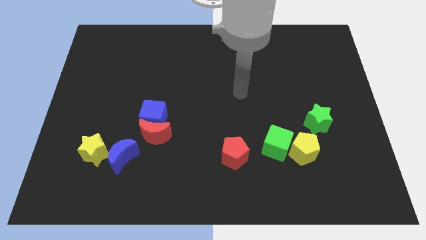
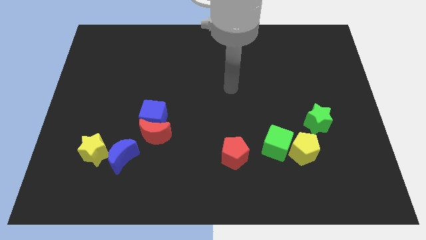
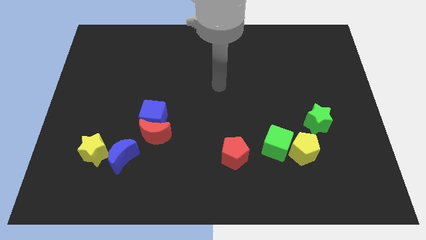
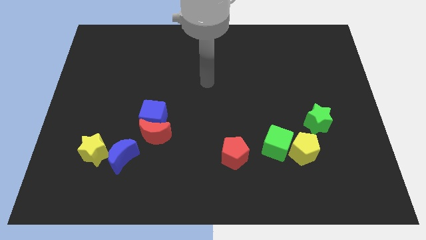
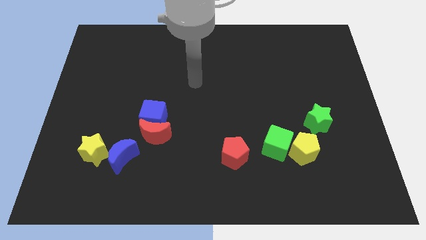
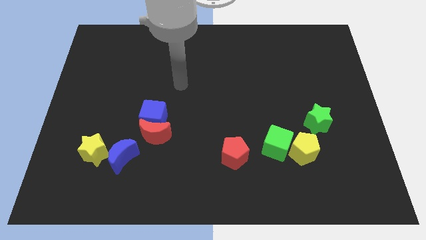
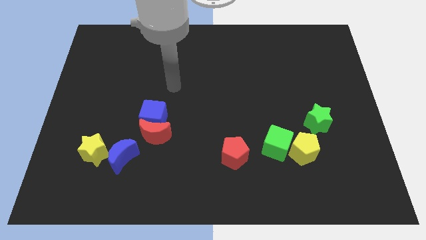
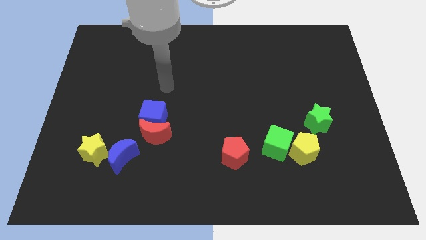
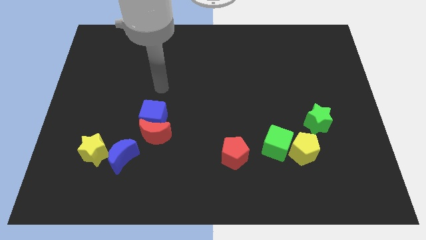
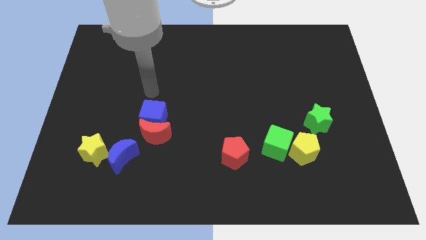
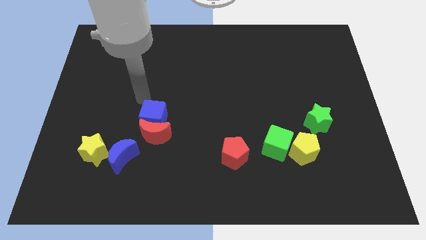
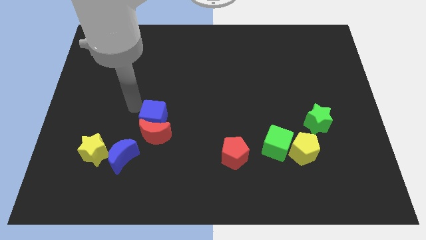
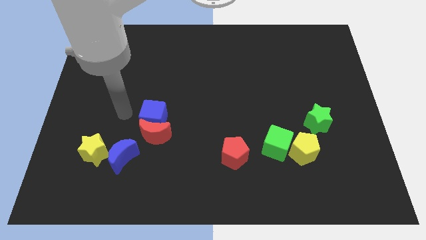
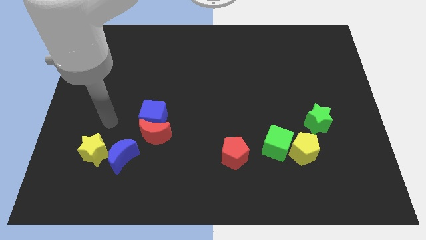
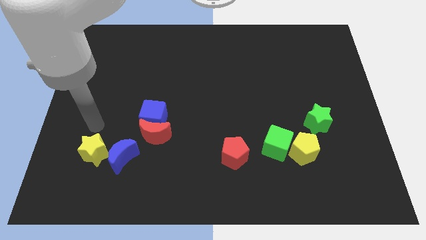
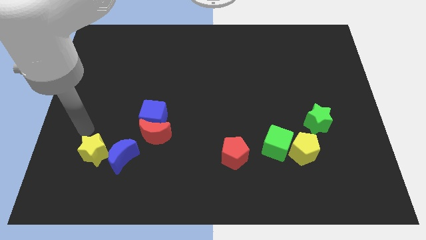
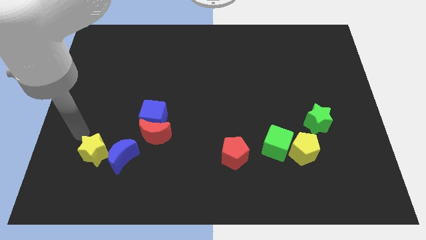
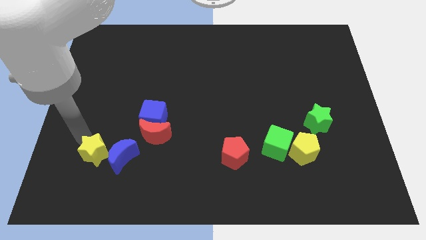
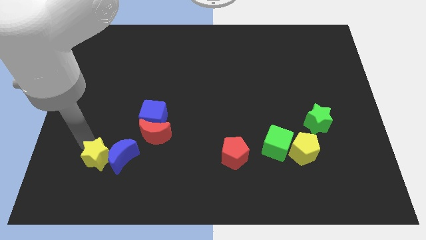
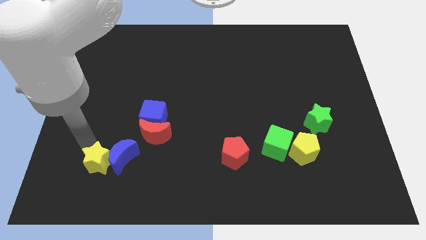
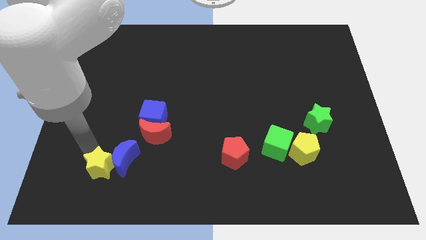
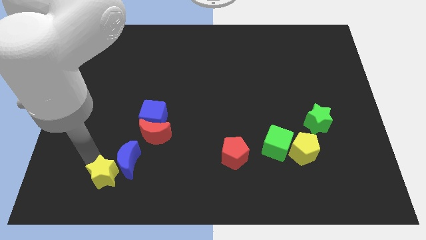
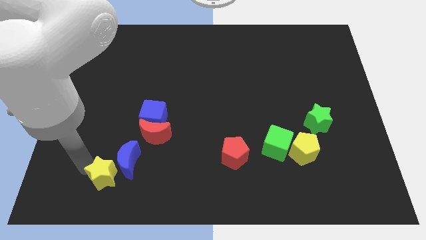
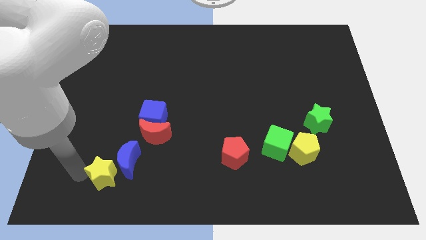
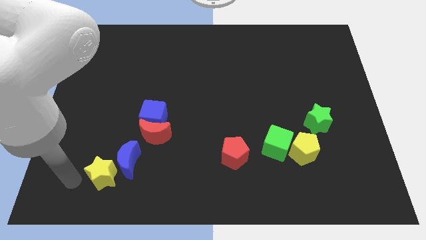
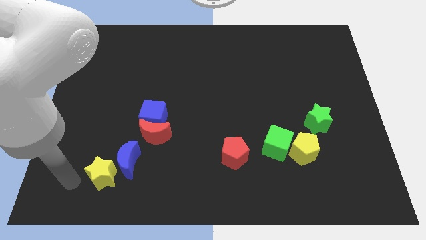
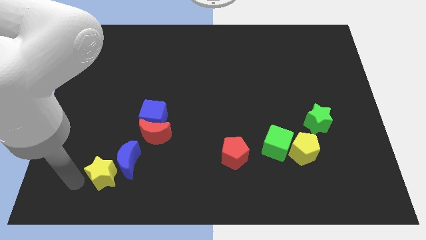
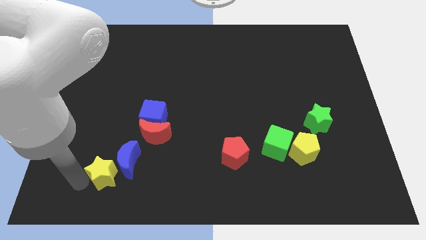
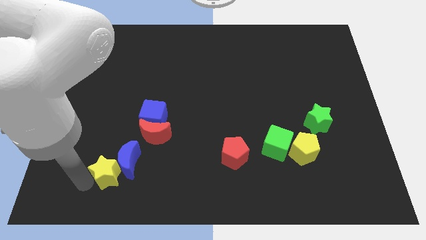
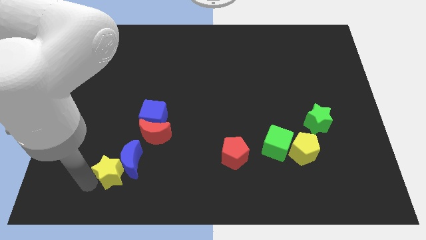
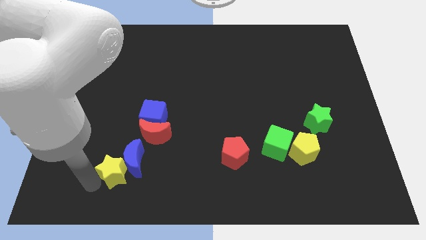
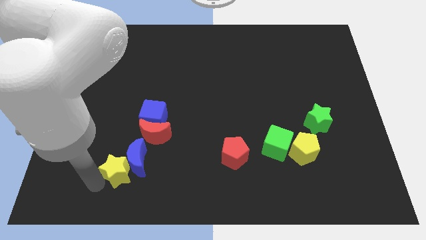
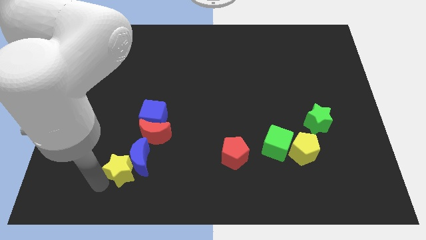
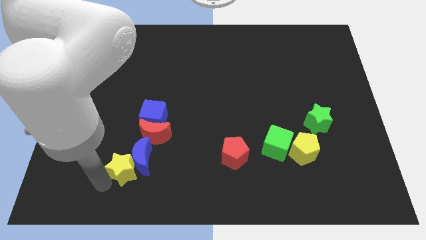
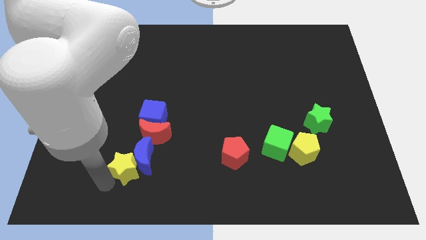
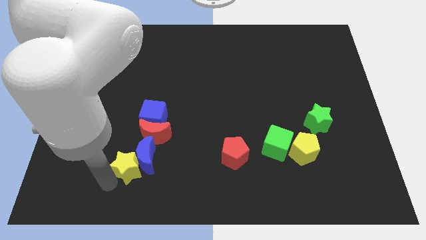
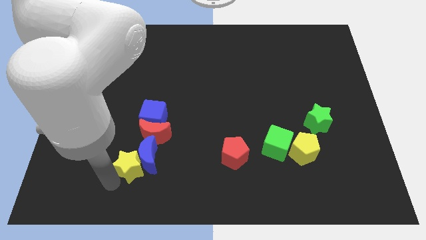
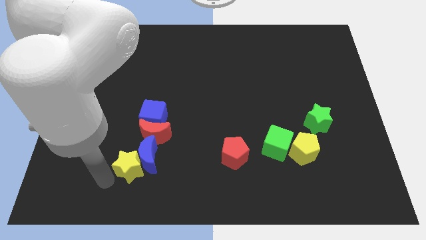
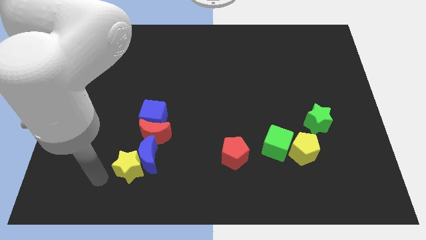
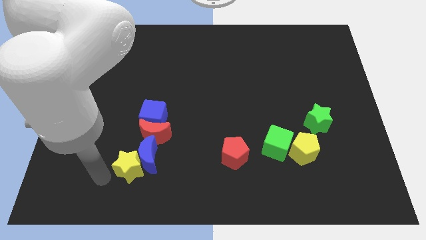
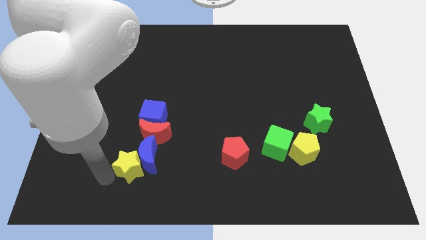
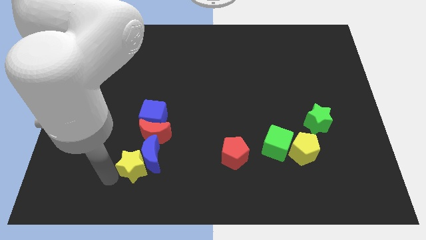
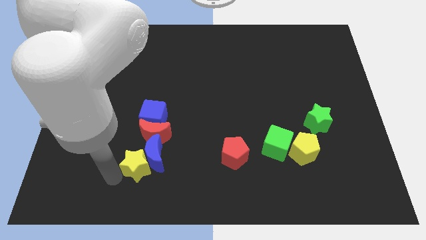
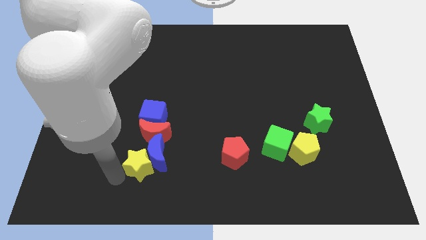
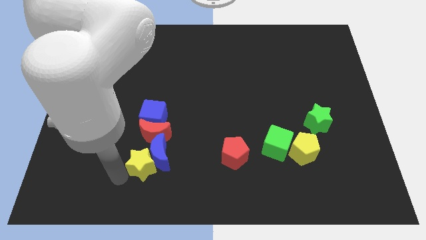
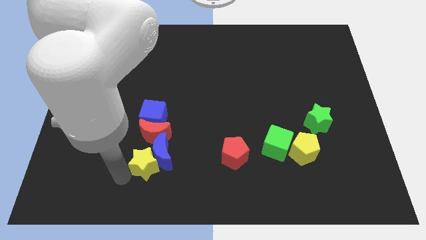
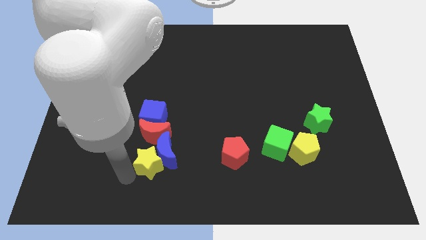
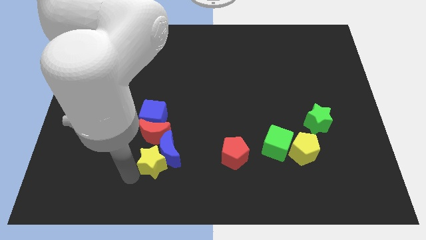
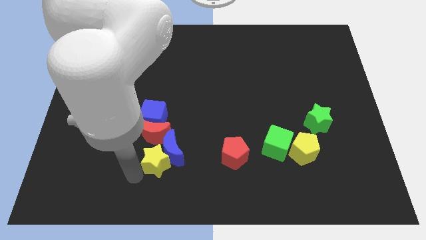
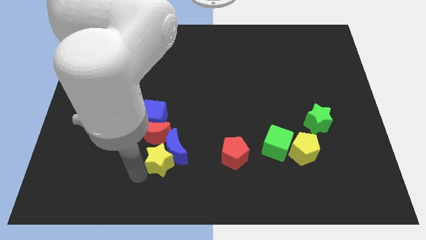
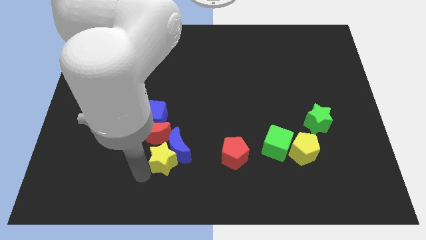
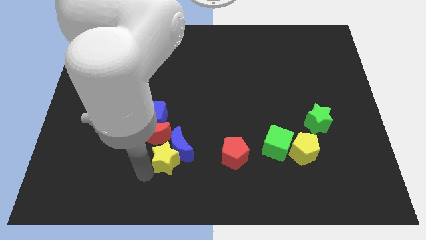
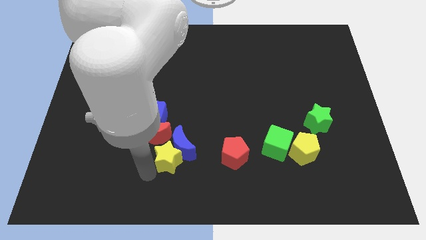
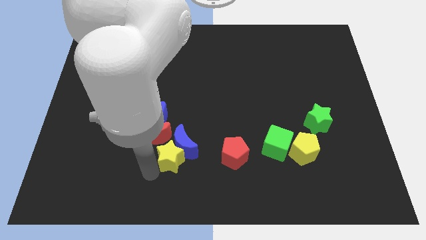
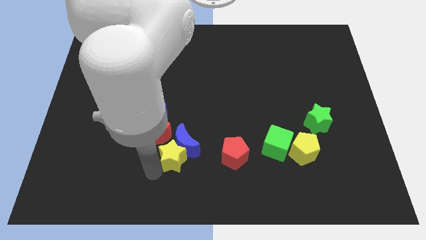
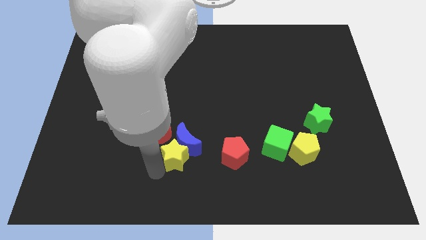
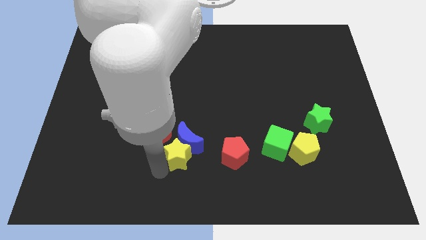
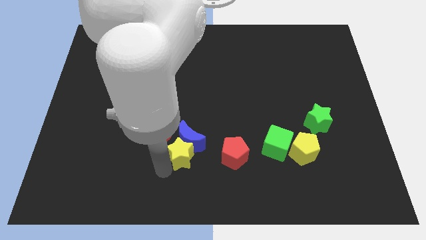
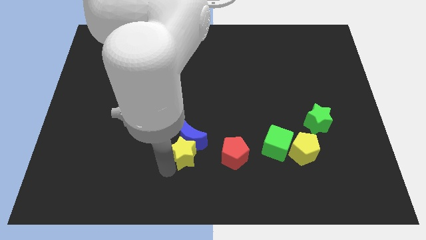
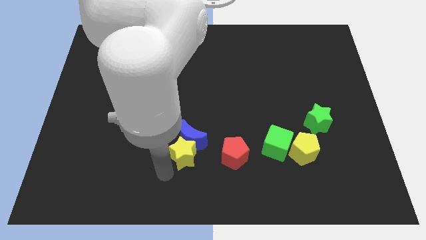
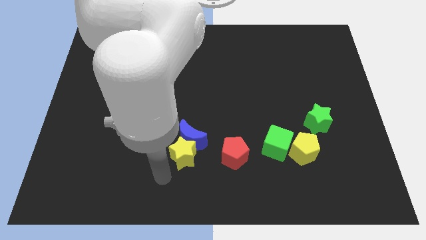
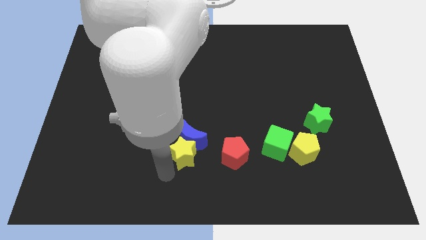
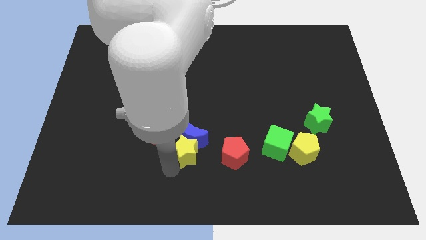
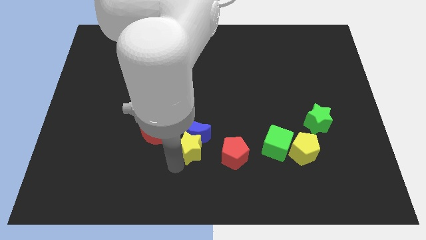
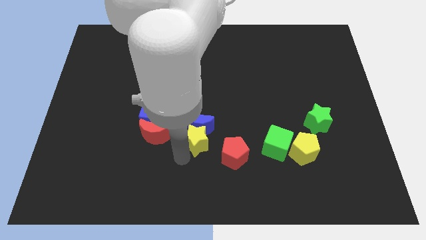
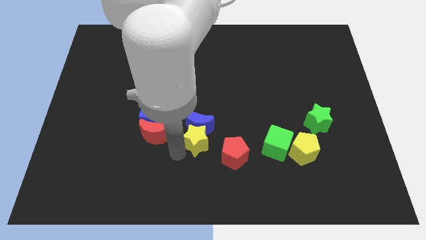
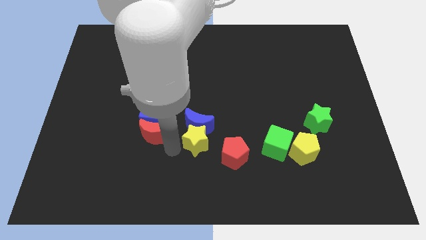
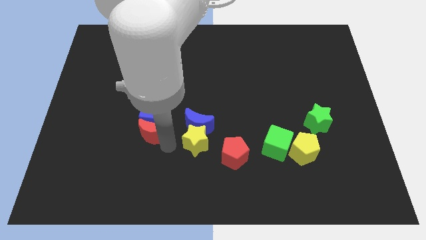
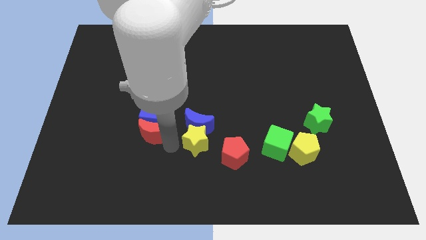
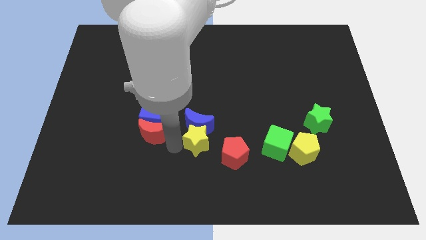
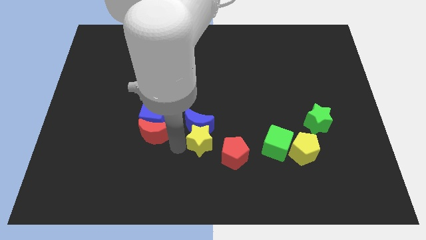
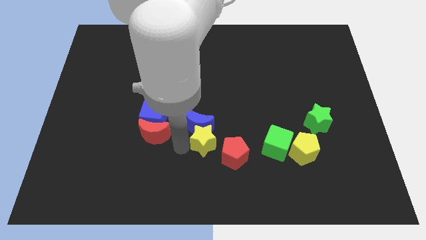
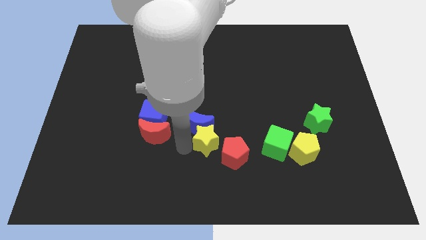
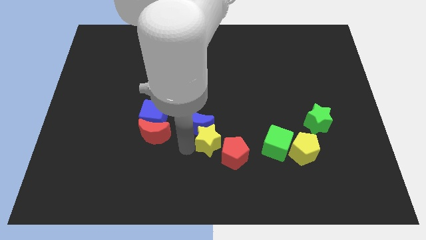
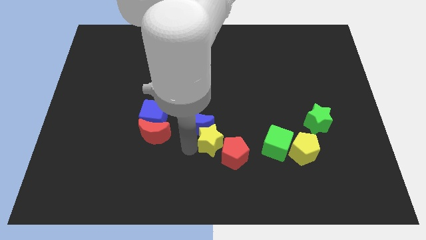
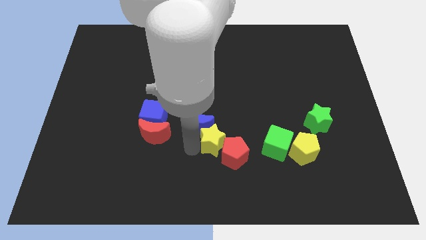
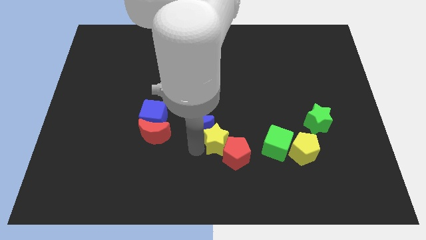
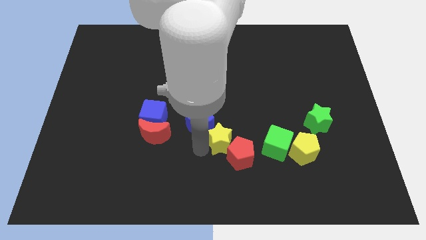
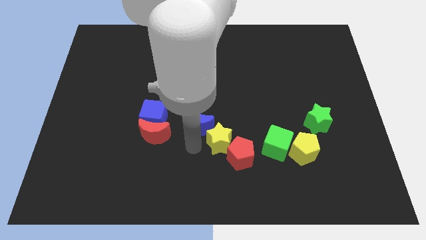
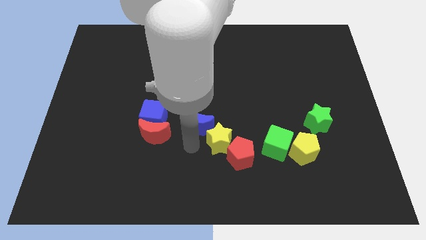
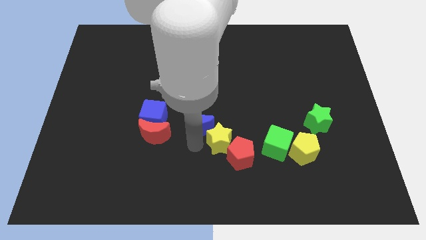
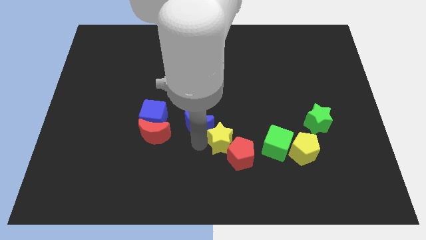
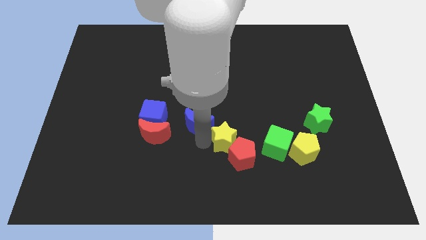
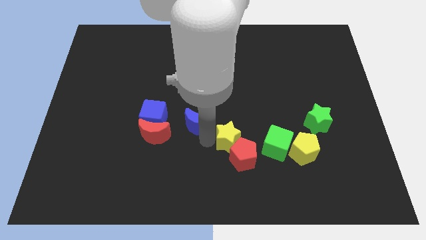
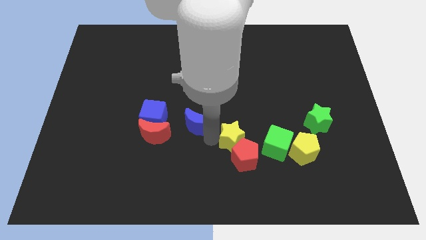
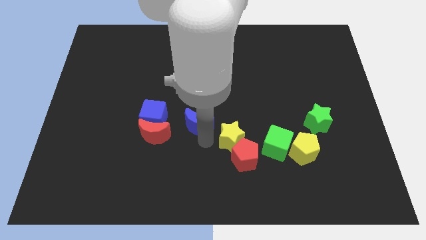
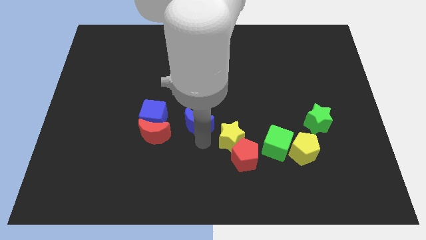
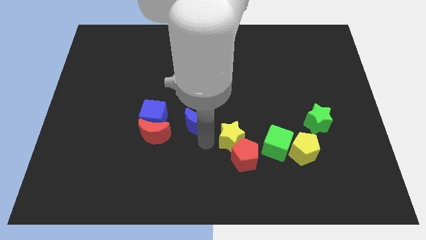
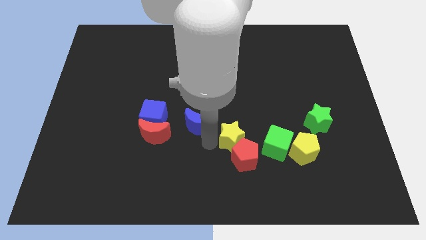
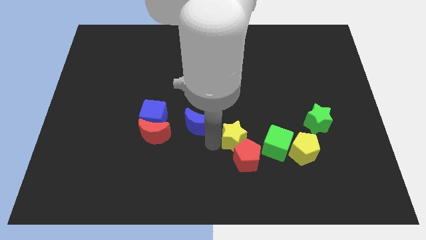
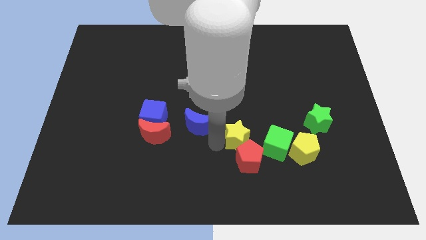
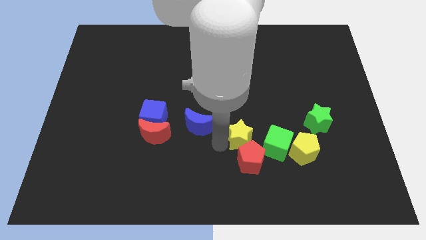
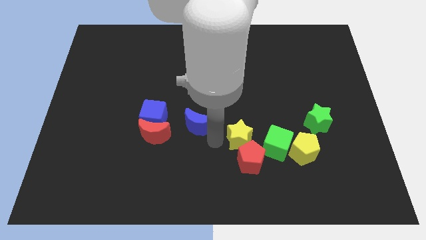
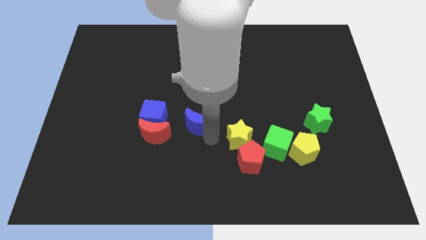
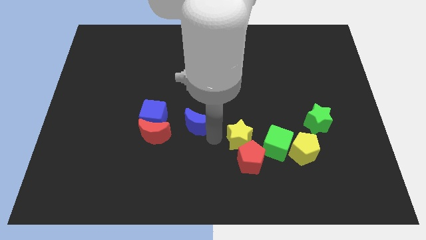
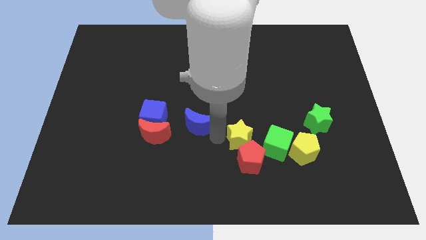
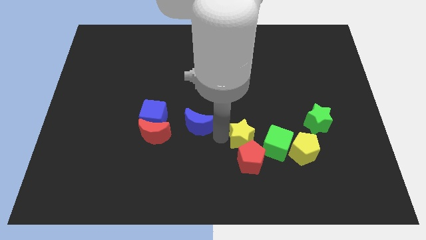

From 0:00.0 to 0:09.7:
push the yellow star to the top right of the red pentagon
